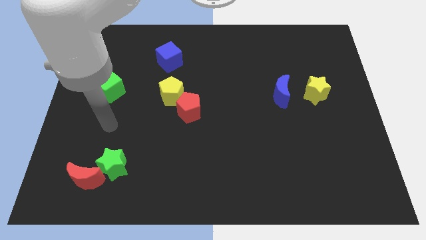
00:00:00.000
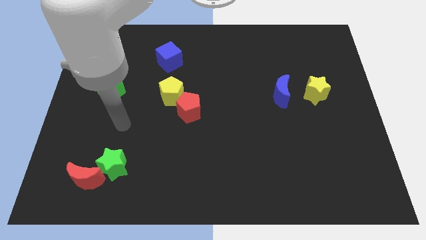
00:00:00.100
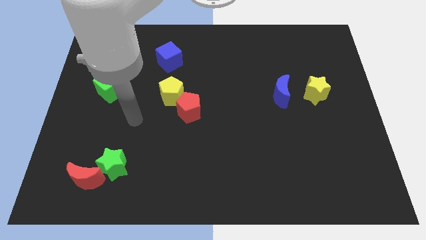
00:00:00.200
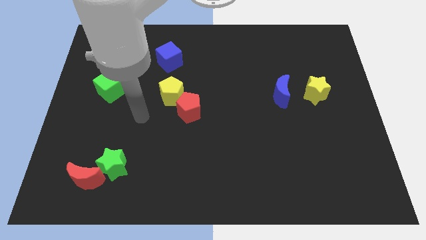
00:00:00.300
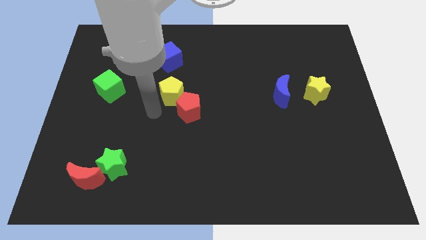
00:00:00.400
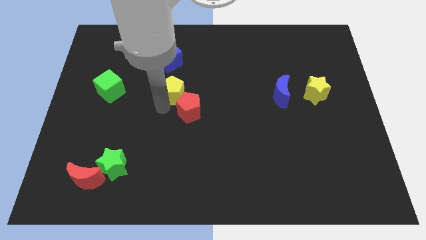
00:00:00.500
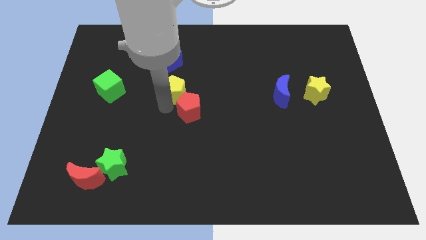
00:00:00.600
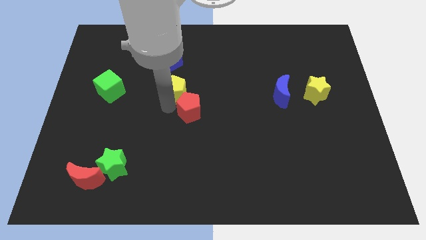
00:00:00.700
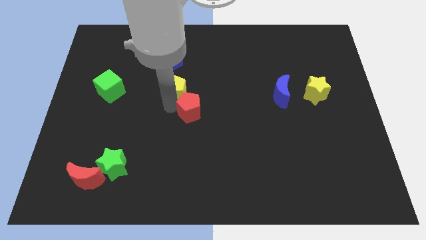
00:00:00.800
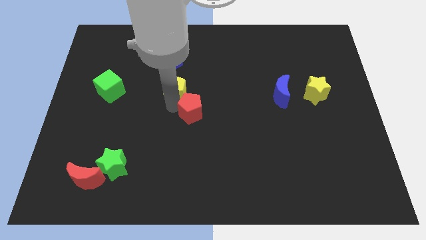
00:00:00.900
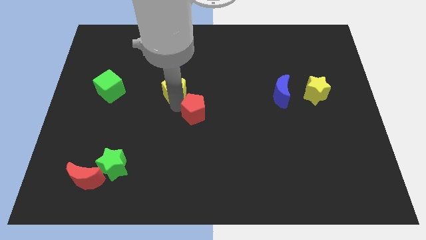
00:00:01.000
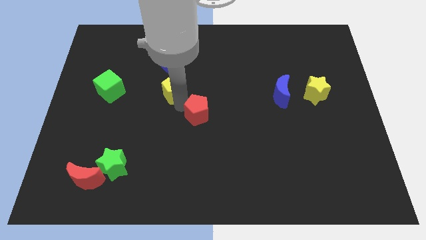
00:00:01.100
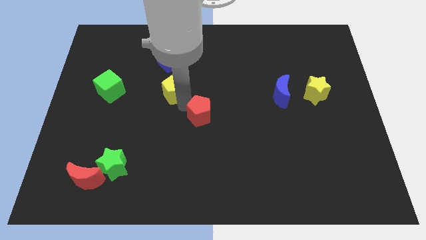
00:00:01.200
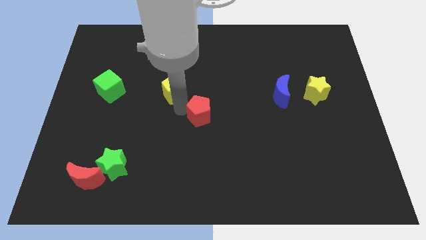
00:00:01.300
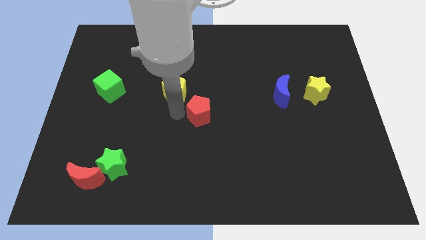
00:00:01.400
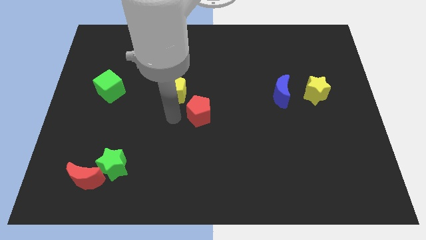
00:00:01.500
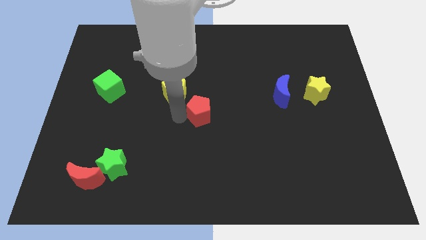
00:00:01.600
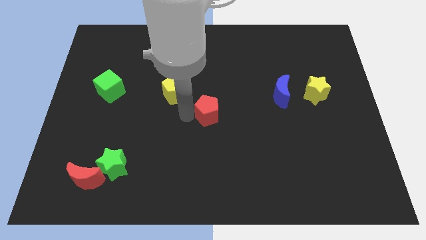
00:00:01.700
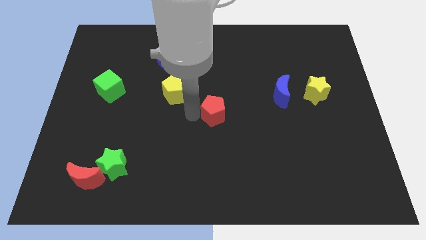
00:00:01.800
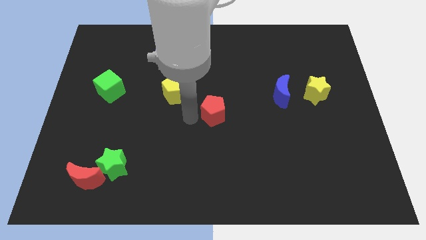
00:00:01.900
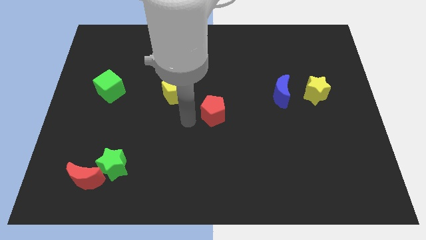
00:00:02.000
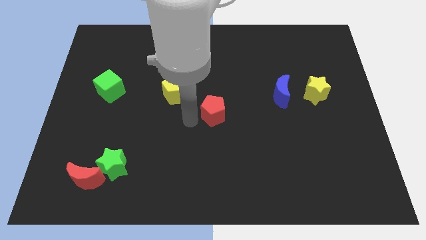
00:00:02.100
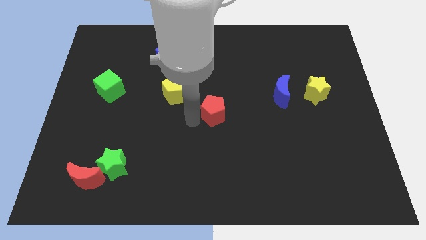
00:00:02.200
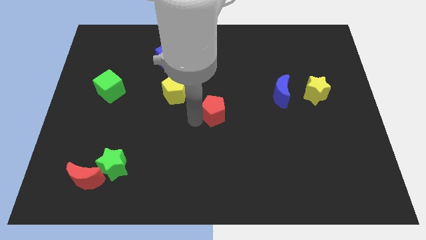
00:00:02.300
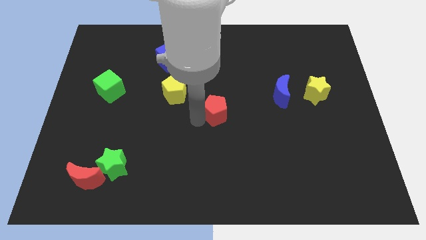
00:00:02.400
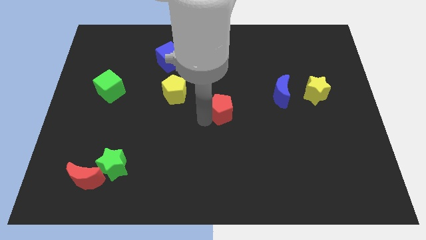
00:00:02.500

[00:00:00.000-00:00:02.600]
move the red pentagon somewhat right

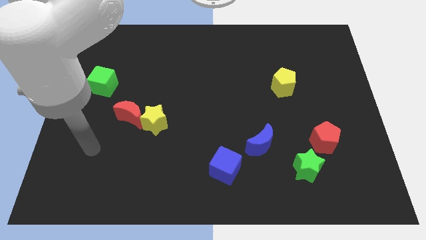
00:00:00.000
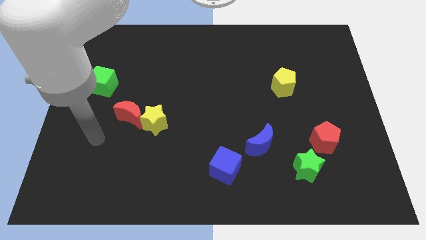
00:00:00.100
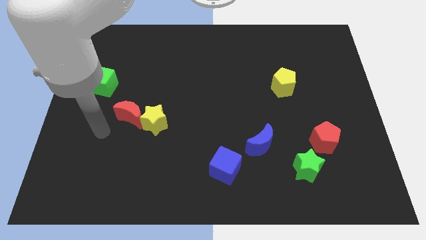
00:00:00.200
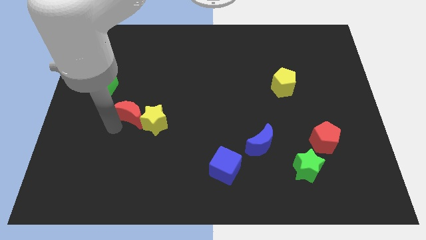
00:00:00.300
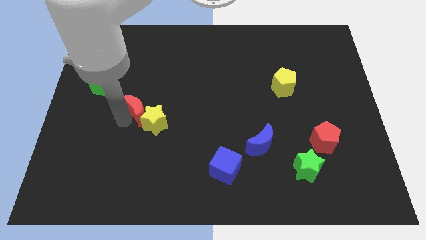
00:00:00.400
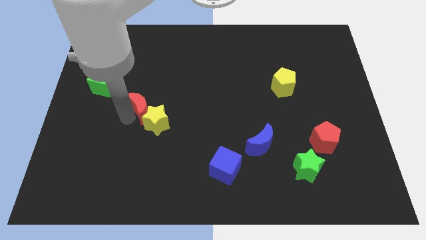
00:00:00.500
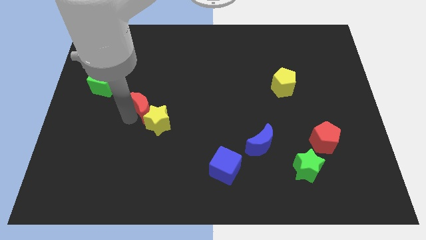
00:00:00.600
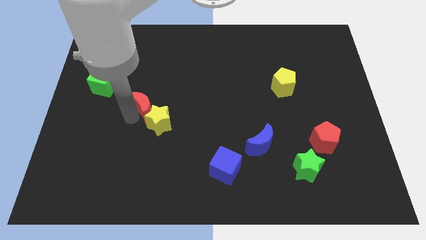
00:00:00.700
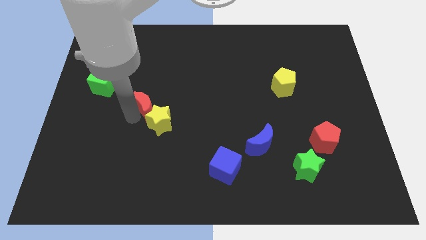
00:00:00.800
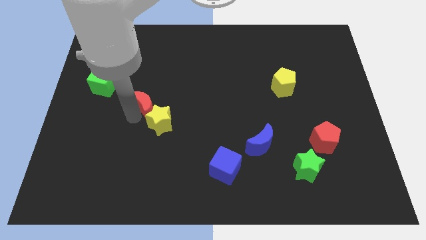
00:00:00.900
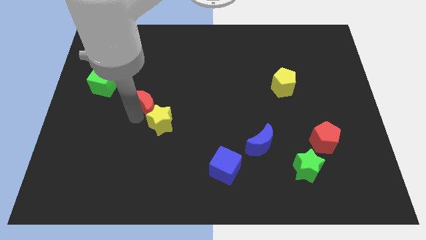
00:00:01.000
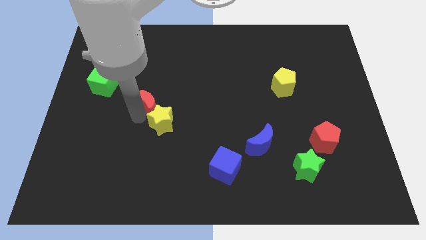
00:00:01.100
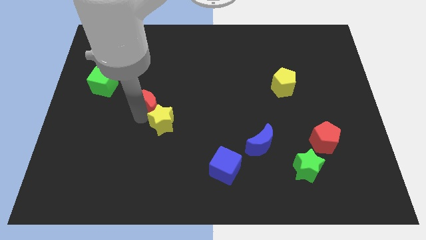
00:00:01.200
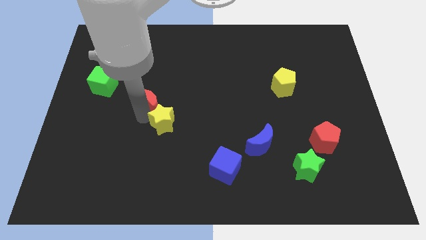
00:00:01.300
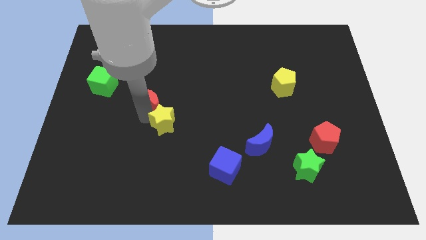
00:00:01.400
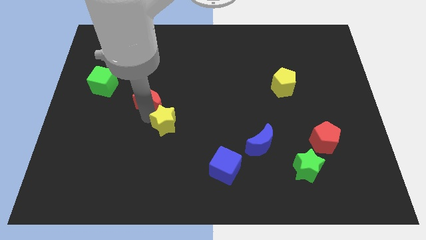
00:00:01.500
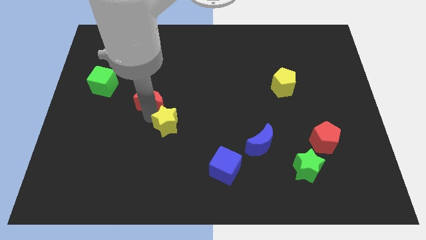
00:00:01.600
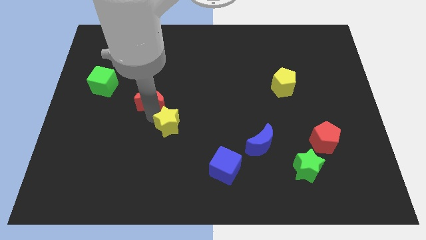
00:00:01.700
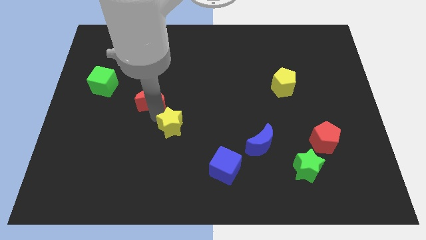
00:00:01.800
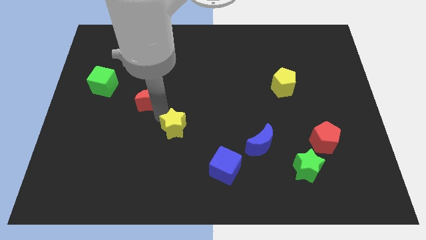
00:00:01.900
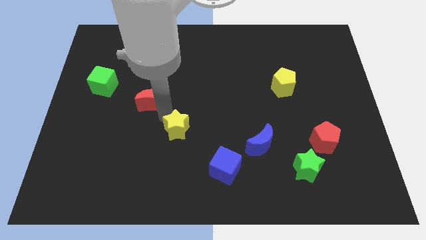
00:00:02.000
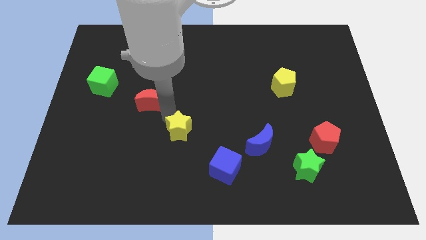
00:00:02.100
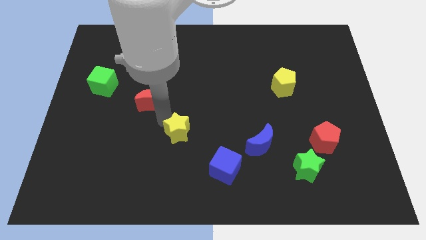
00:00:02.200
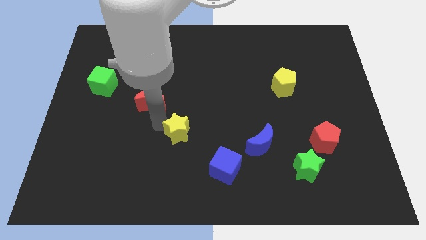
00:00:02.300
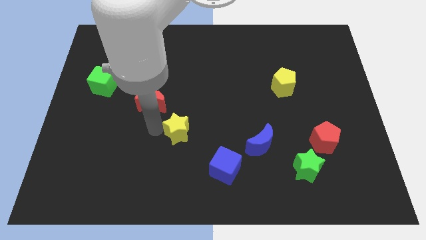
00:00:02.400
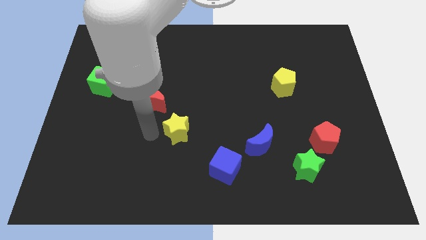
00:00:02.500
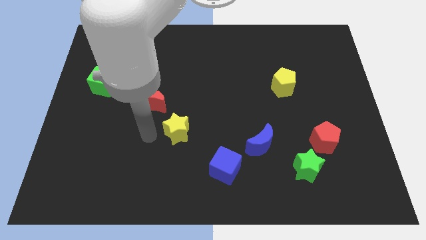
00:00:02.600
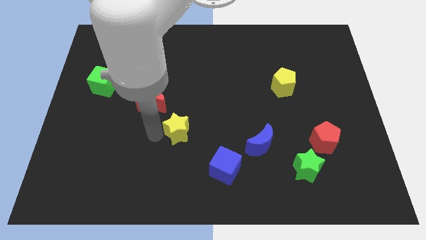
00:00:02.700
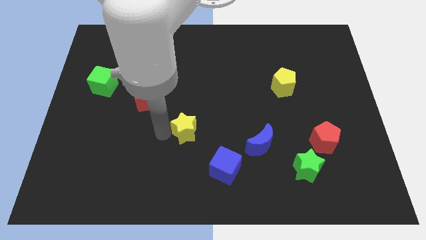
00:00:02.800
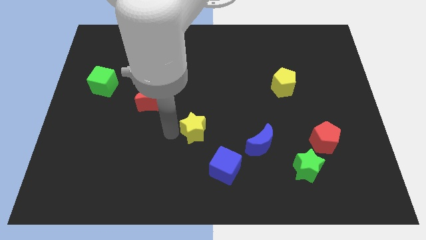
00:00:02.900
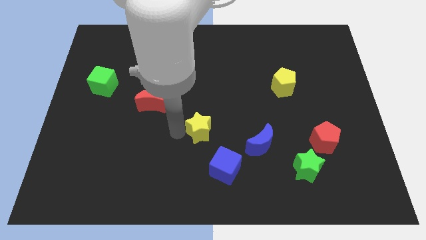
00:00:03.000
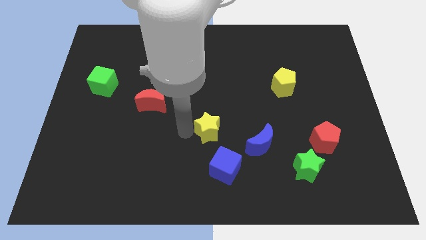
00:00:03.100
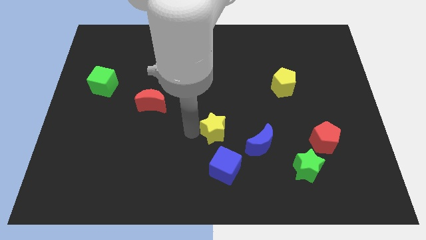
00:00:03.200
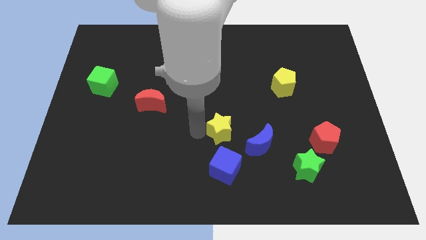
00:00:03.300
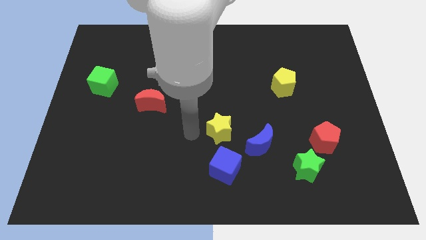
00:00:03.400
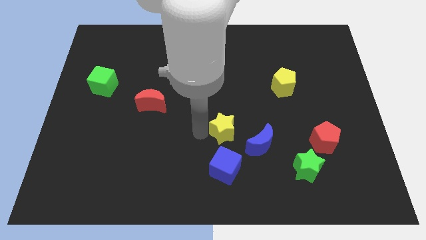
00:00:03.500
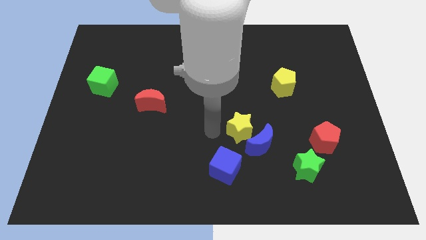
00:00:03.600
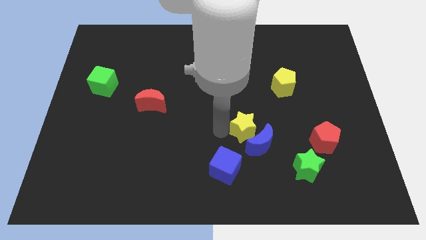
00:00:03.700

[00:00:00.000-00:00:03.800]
slide the yellow star right

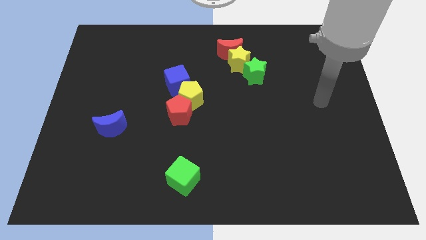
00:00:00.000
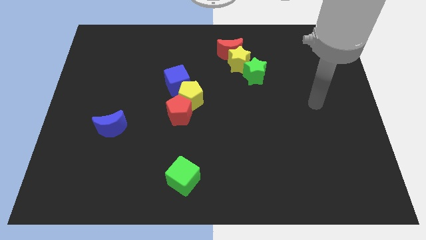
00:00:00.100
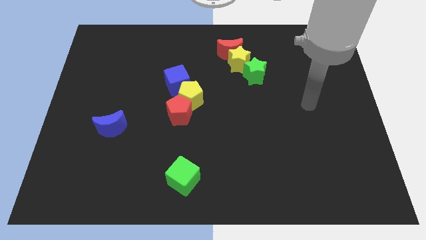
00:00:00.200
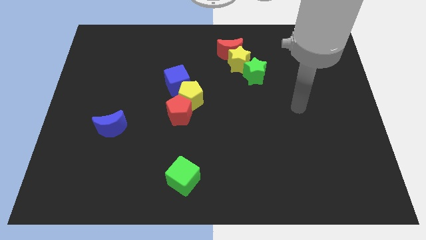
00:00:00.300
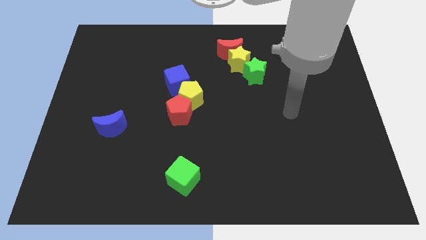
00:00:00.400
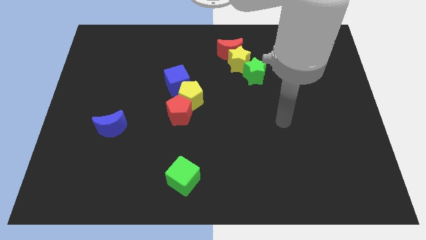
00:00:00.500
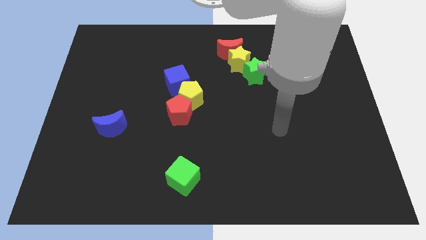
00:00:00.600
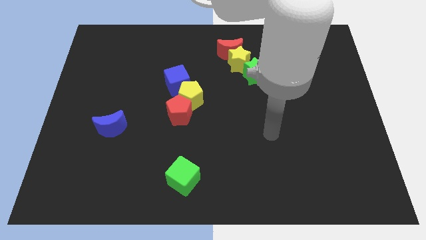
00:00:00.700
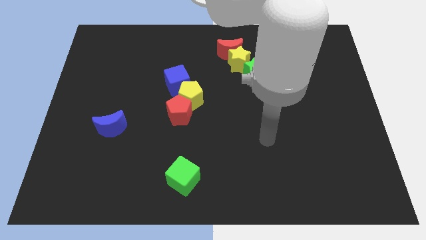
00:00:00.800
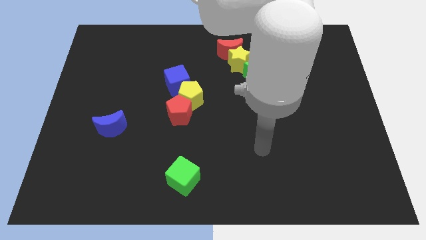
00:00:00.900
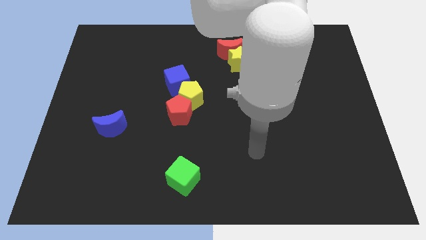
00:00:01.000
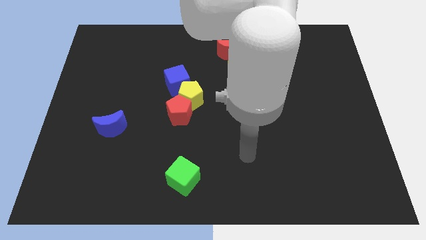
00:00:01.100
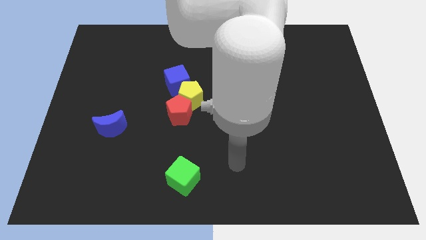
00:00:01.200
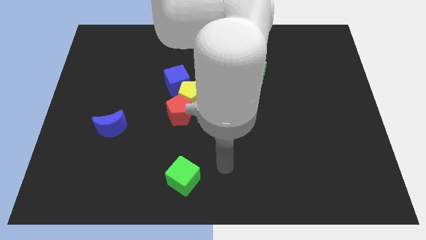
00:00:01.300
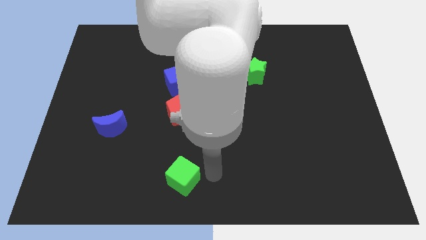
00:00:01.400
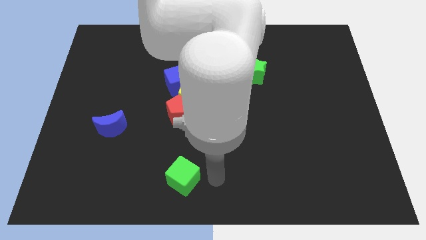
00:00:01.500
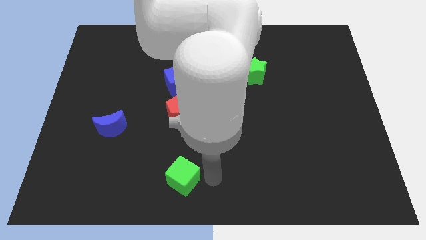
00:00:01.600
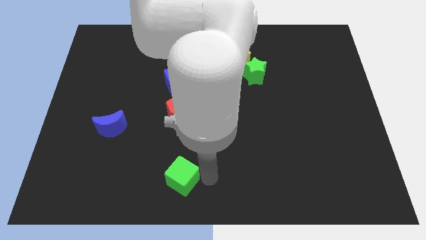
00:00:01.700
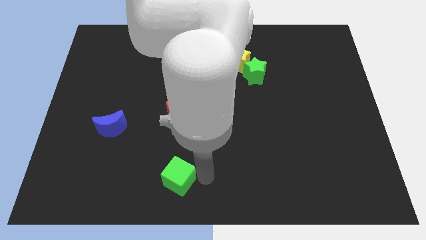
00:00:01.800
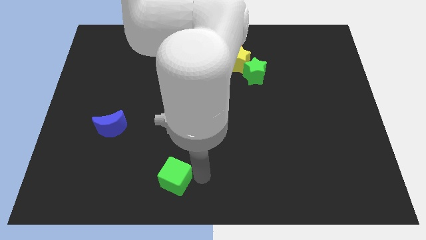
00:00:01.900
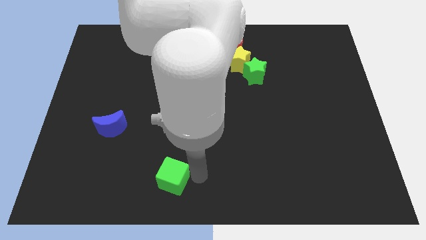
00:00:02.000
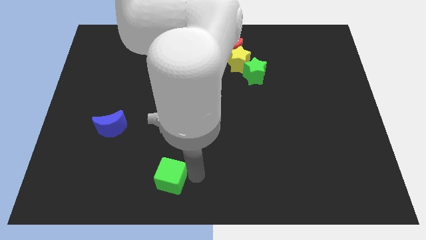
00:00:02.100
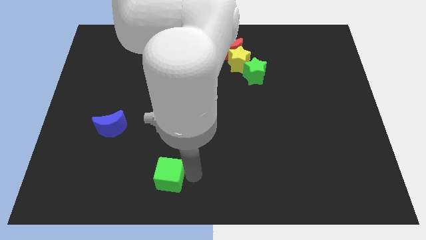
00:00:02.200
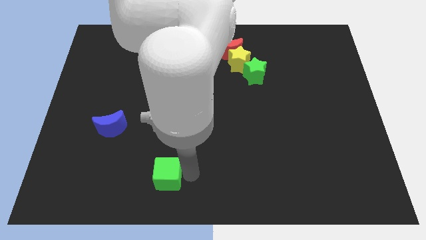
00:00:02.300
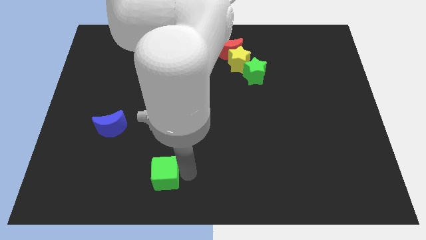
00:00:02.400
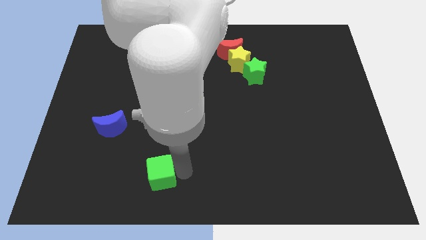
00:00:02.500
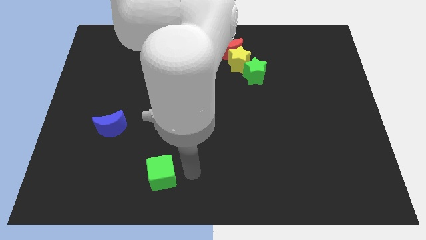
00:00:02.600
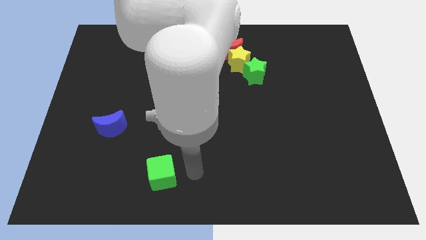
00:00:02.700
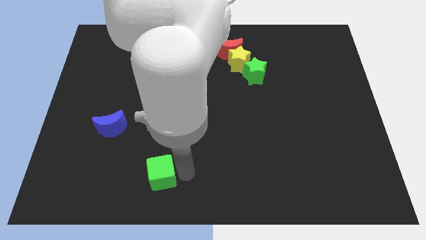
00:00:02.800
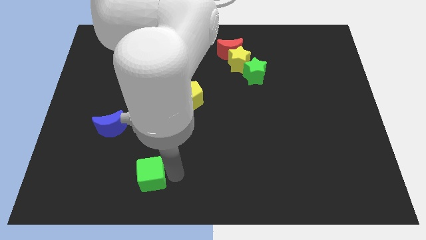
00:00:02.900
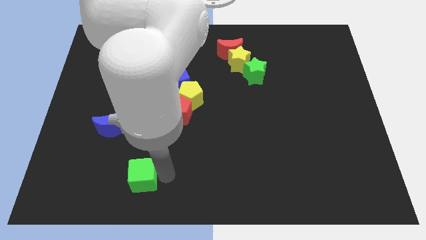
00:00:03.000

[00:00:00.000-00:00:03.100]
move the green cube left a little
